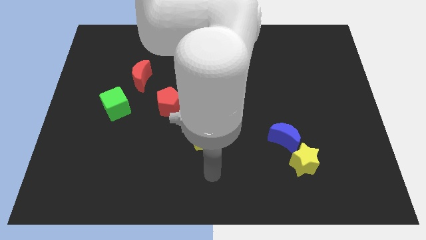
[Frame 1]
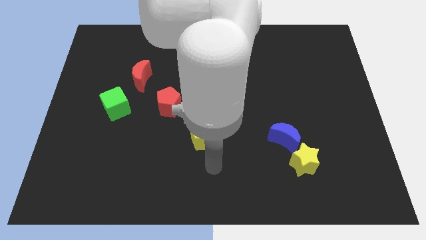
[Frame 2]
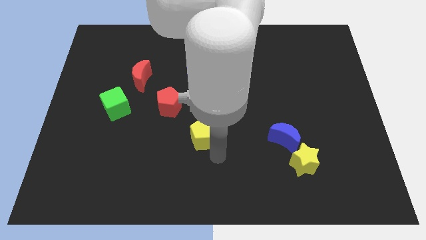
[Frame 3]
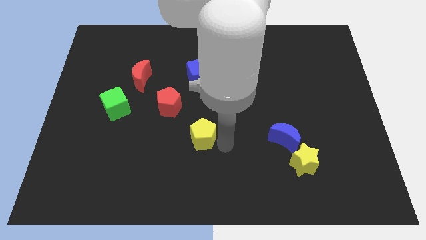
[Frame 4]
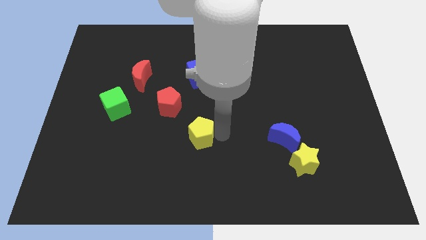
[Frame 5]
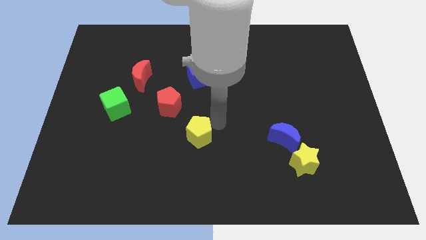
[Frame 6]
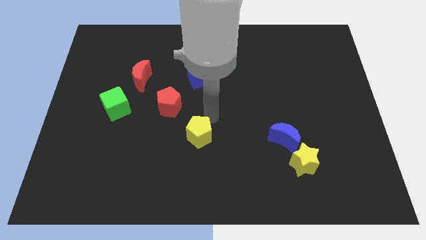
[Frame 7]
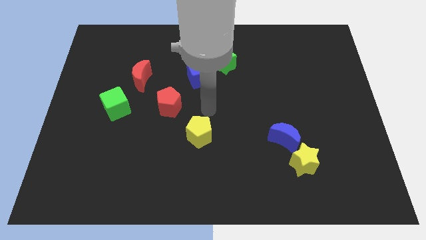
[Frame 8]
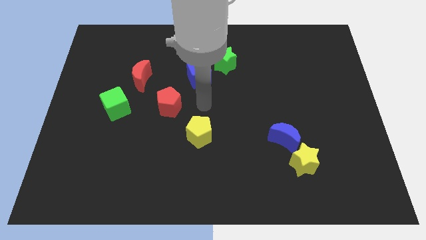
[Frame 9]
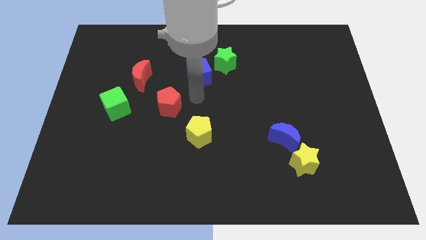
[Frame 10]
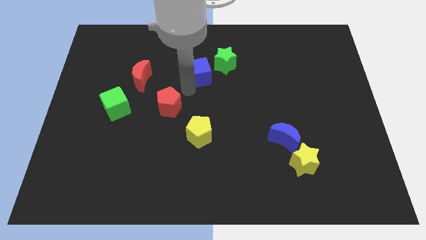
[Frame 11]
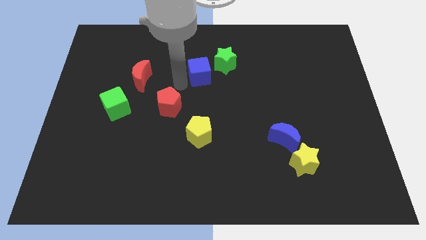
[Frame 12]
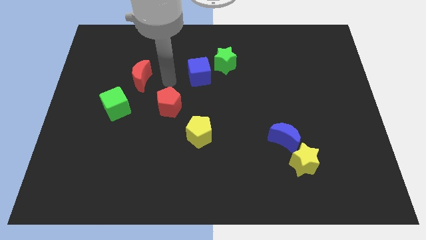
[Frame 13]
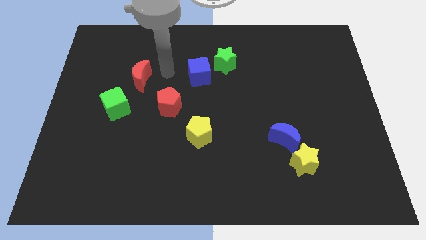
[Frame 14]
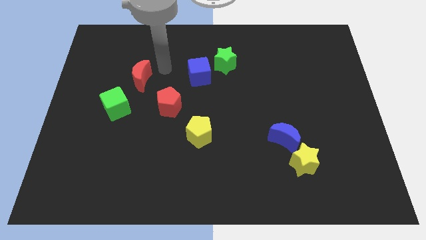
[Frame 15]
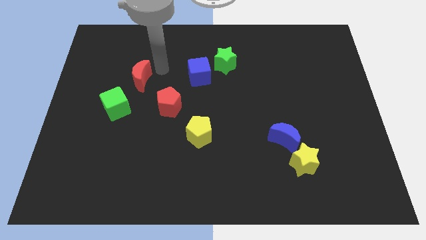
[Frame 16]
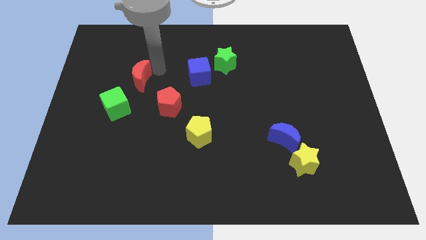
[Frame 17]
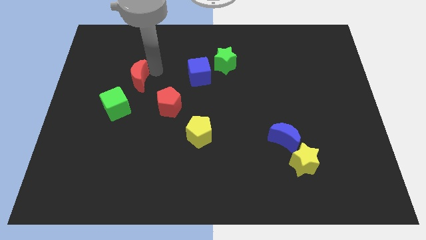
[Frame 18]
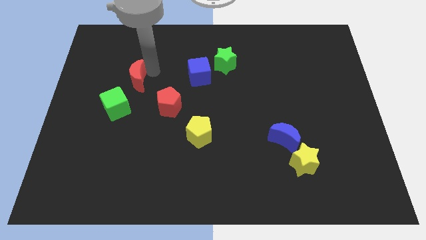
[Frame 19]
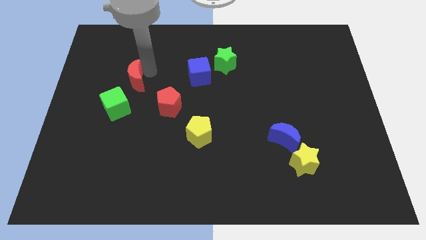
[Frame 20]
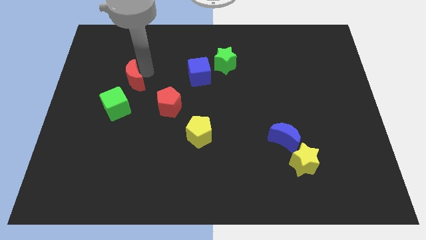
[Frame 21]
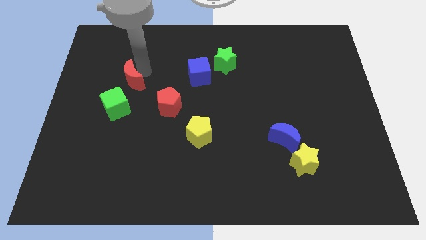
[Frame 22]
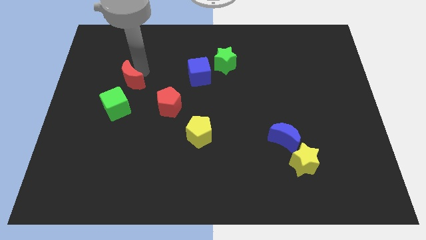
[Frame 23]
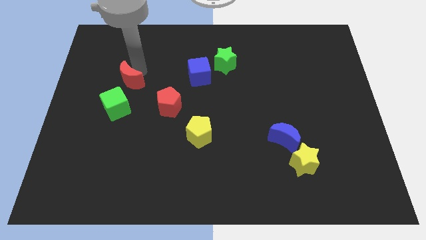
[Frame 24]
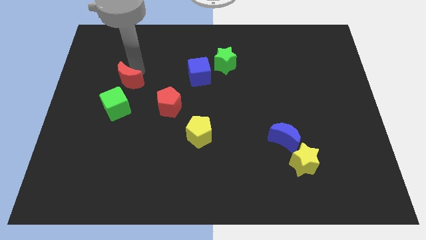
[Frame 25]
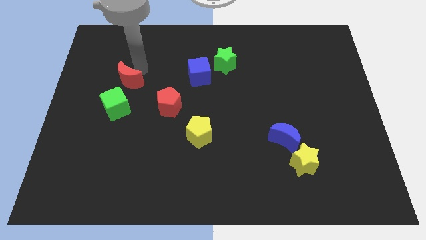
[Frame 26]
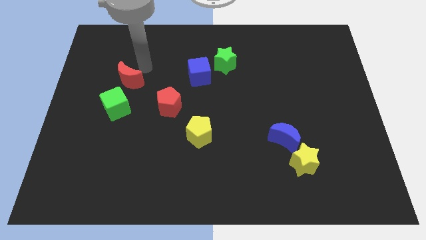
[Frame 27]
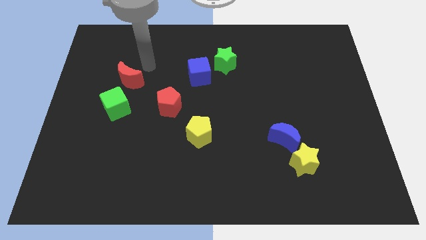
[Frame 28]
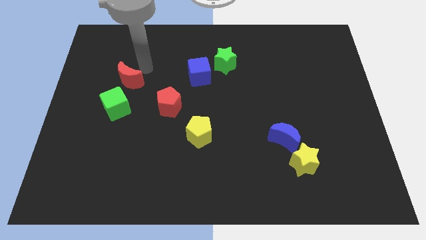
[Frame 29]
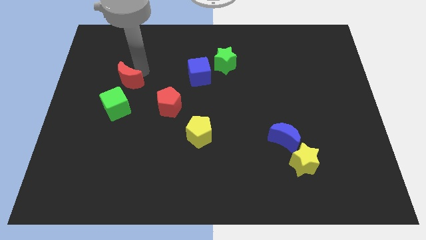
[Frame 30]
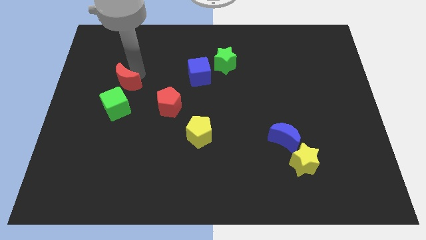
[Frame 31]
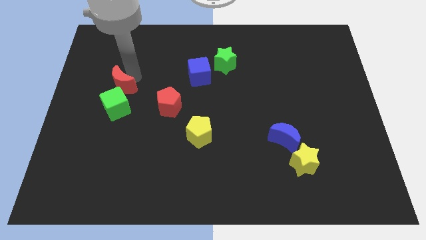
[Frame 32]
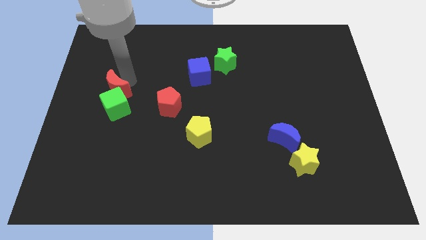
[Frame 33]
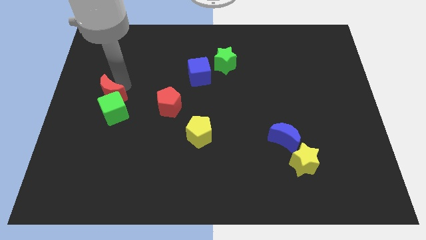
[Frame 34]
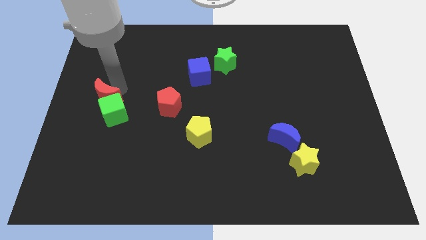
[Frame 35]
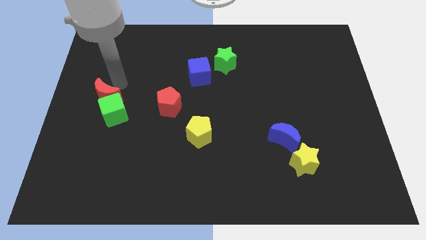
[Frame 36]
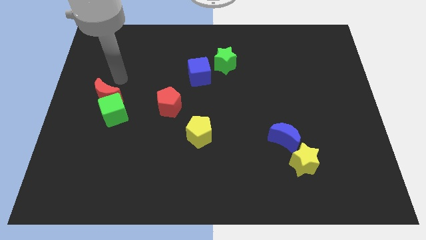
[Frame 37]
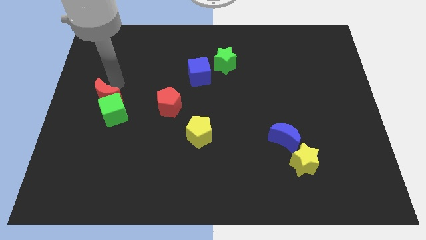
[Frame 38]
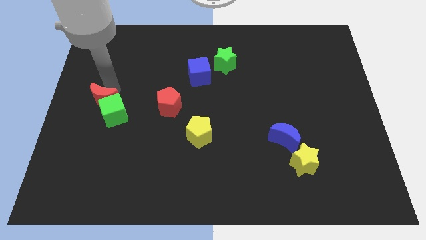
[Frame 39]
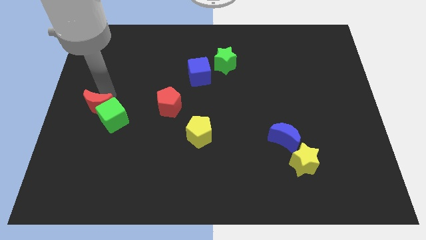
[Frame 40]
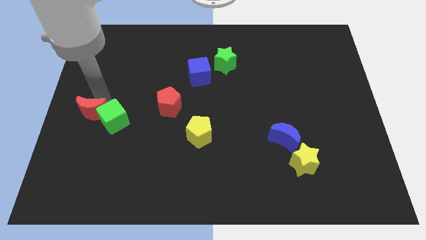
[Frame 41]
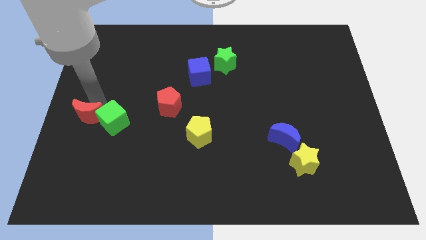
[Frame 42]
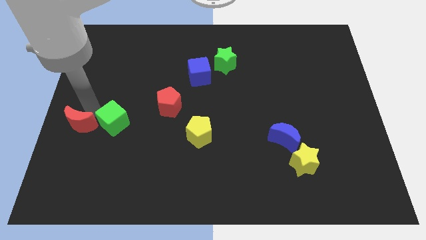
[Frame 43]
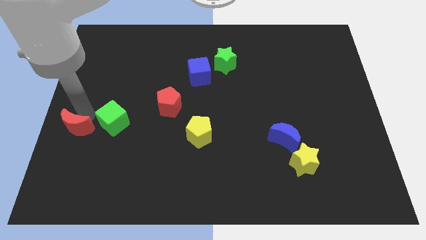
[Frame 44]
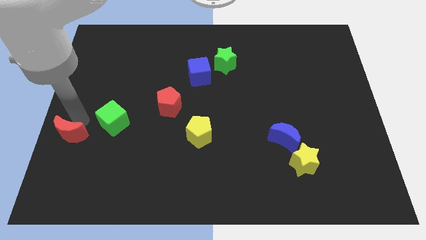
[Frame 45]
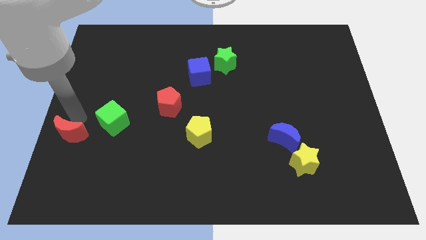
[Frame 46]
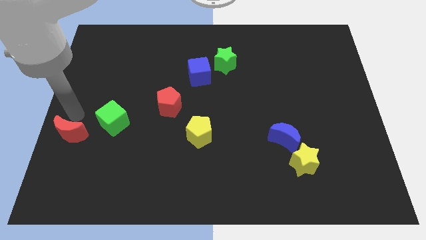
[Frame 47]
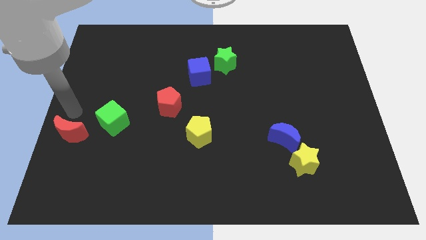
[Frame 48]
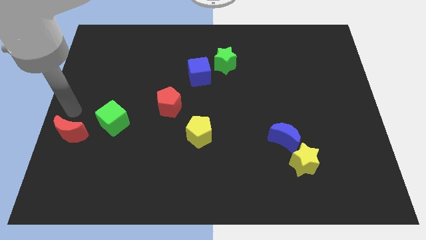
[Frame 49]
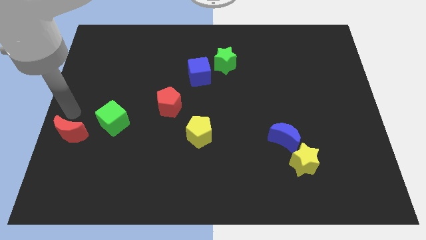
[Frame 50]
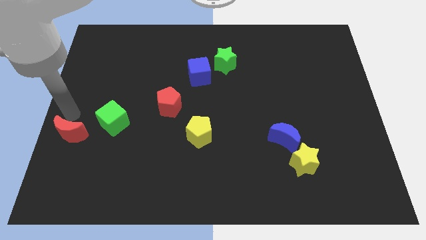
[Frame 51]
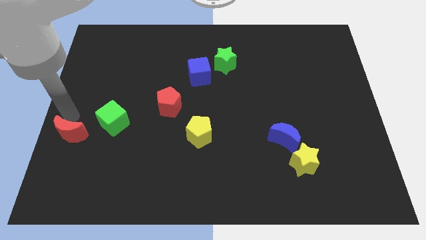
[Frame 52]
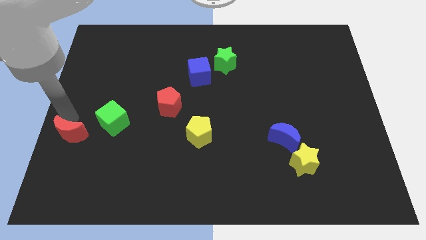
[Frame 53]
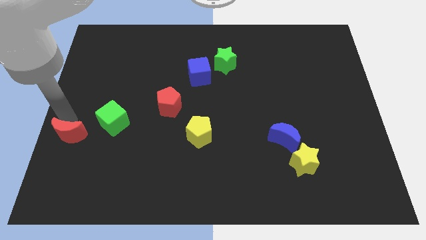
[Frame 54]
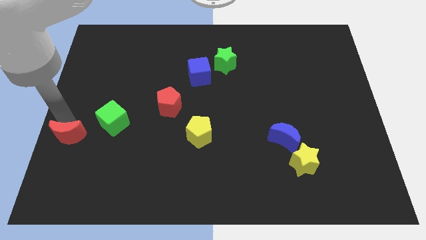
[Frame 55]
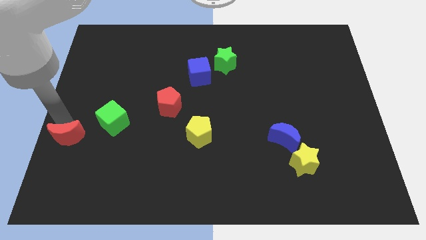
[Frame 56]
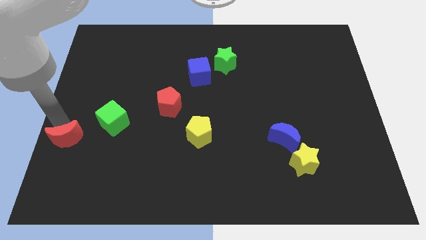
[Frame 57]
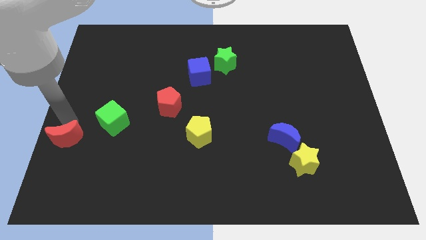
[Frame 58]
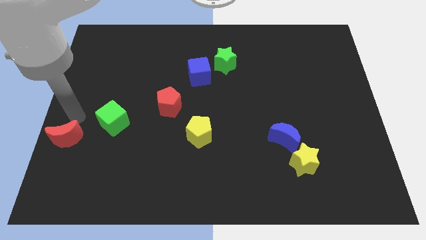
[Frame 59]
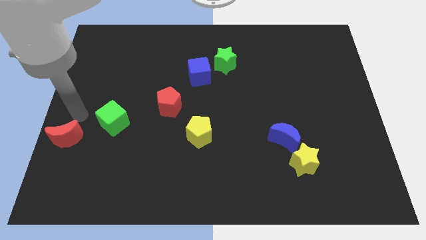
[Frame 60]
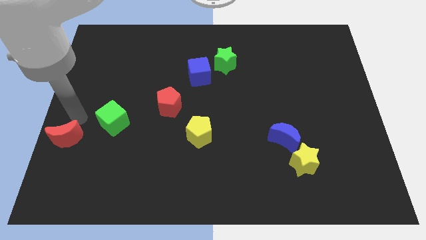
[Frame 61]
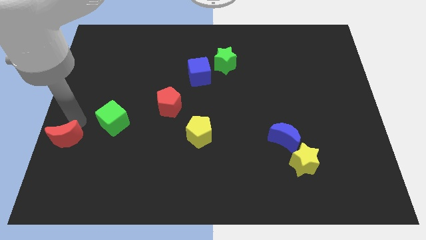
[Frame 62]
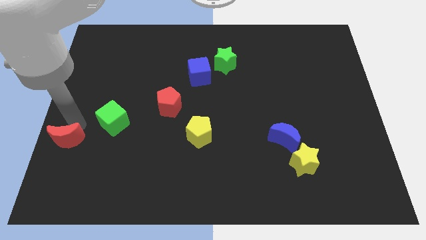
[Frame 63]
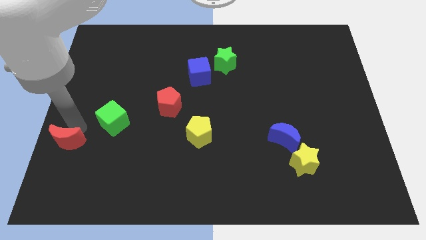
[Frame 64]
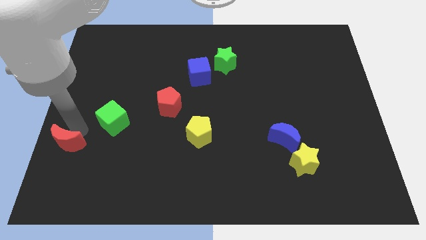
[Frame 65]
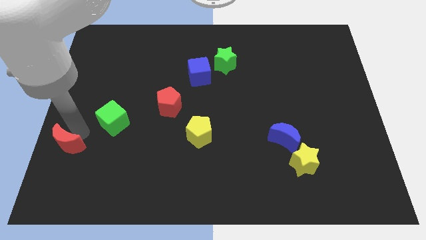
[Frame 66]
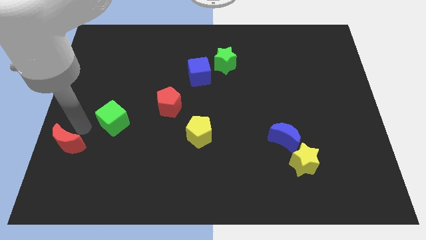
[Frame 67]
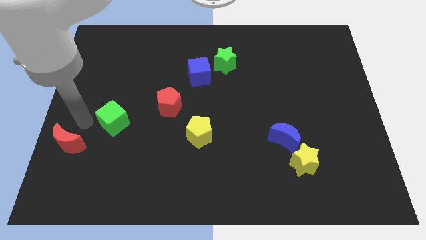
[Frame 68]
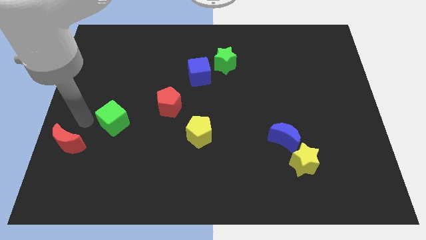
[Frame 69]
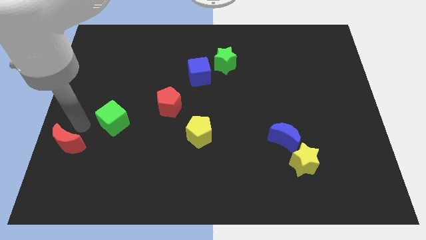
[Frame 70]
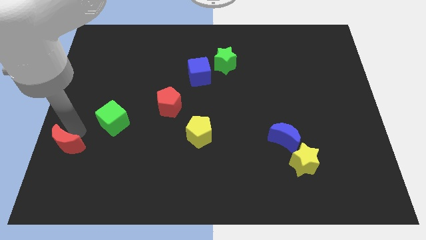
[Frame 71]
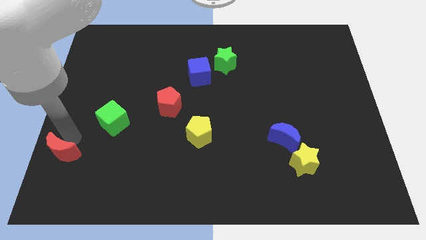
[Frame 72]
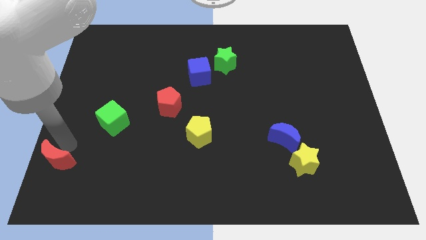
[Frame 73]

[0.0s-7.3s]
move the red moon to the bottom left corner
